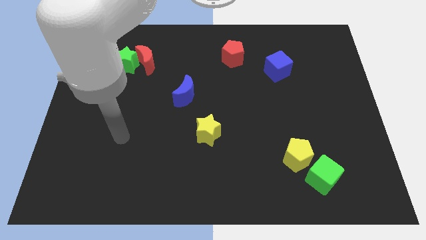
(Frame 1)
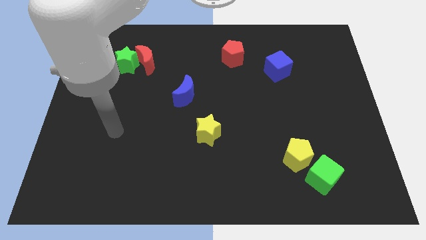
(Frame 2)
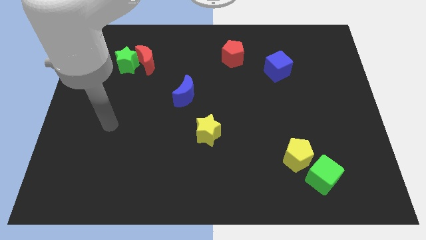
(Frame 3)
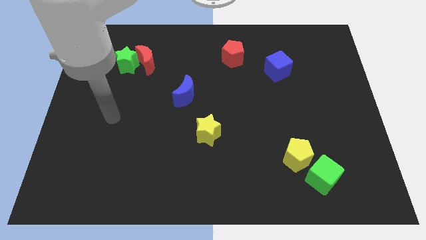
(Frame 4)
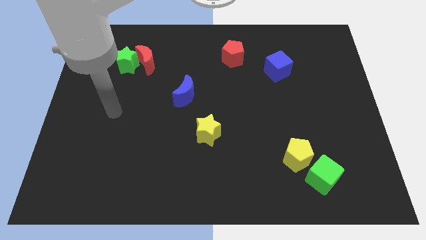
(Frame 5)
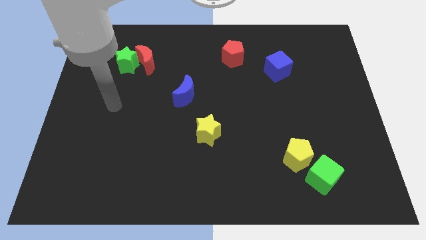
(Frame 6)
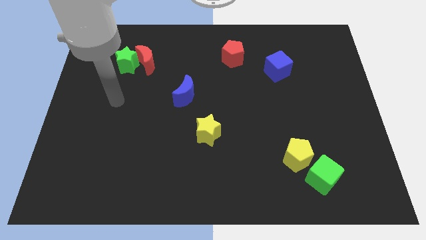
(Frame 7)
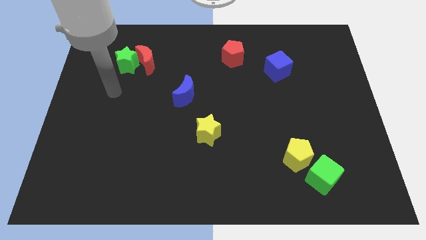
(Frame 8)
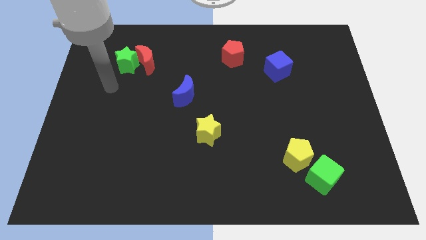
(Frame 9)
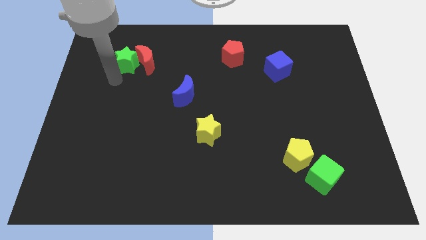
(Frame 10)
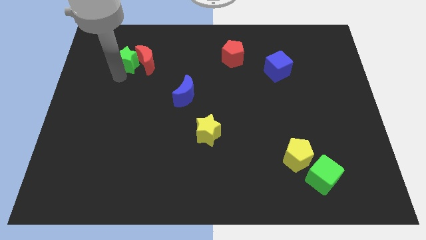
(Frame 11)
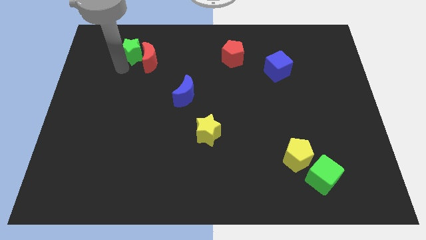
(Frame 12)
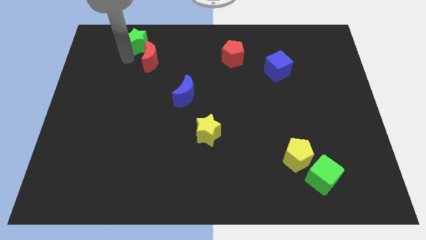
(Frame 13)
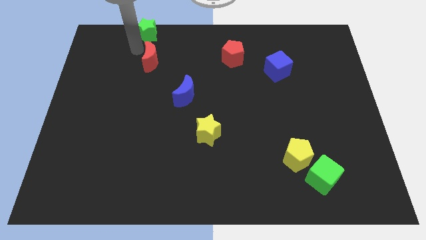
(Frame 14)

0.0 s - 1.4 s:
separate the red moon from the green star

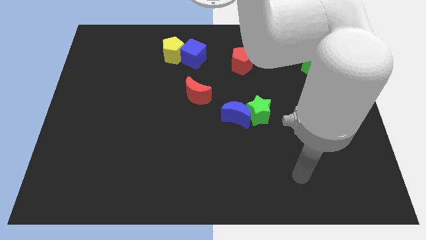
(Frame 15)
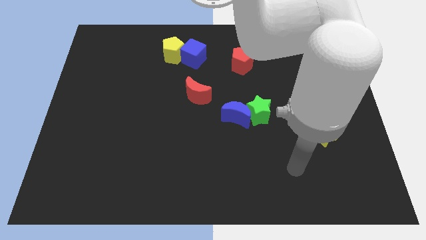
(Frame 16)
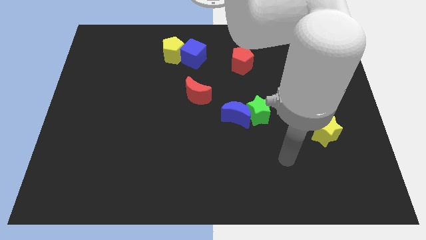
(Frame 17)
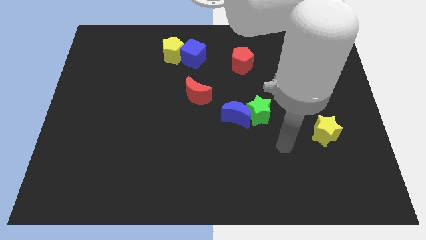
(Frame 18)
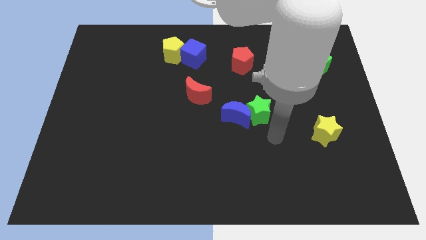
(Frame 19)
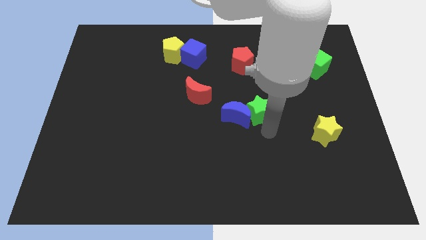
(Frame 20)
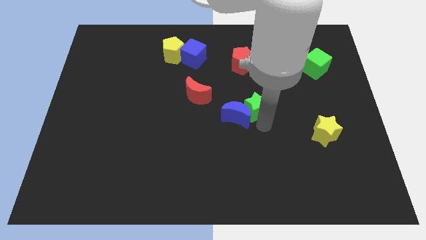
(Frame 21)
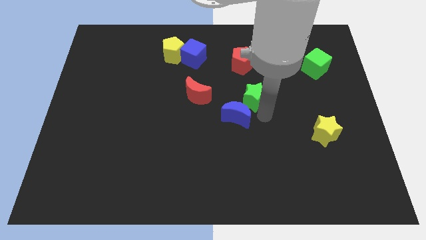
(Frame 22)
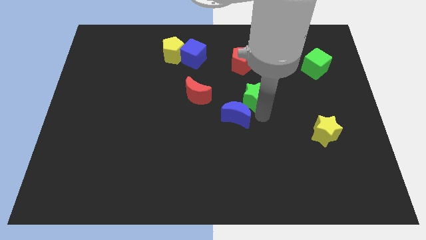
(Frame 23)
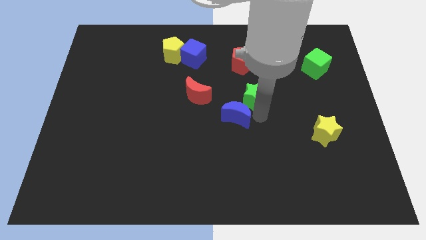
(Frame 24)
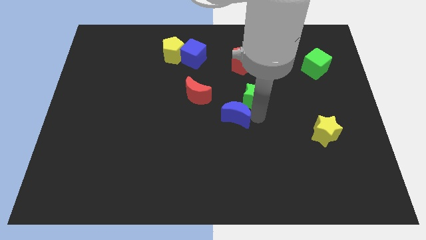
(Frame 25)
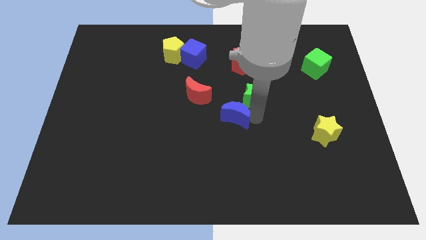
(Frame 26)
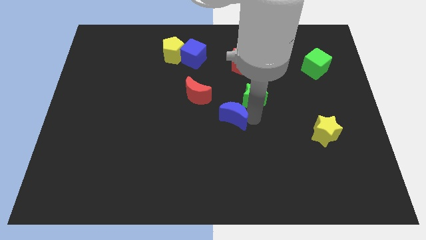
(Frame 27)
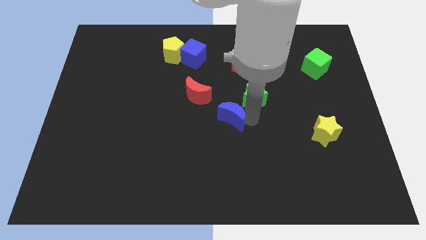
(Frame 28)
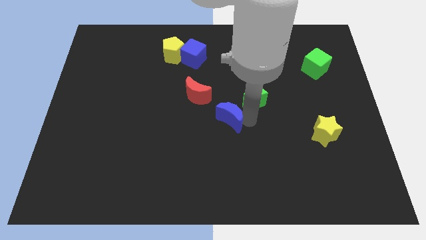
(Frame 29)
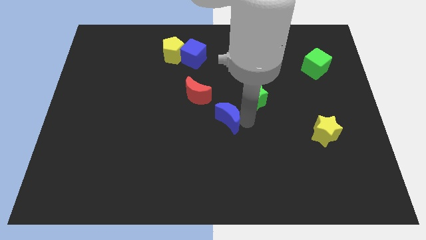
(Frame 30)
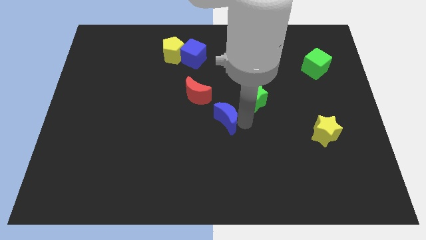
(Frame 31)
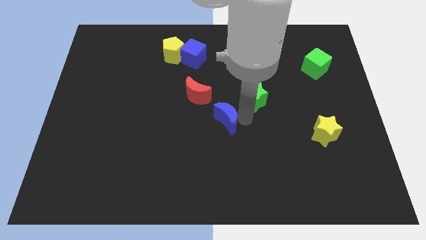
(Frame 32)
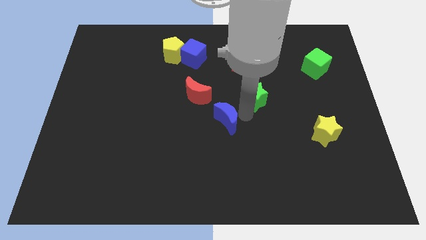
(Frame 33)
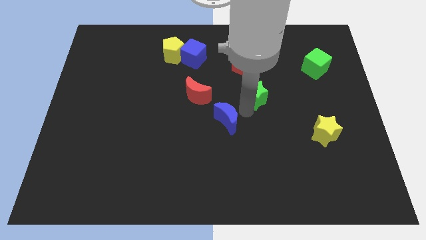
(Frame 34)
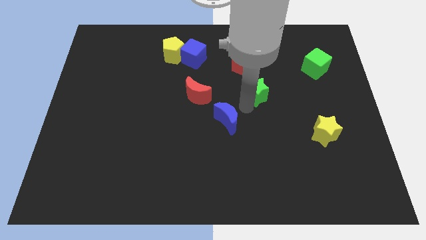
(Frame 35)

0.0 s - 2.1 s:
move the blue moon away from the green star

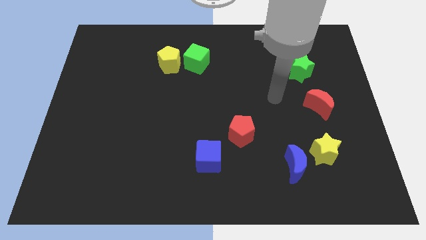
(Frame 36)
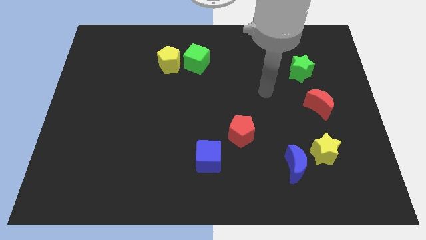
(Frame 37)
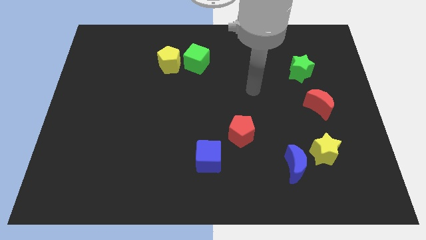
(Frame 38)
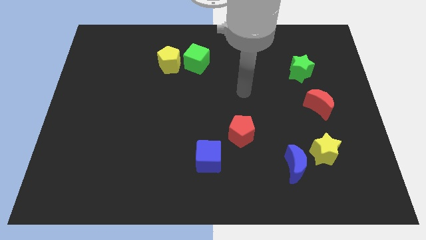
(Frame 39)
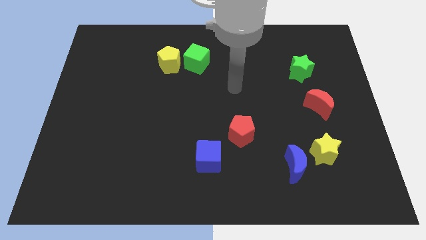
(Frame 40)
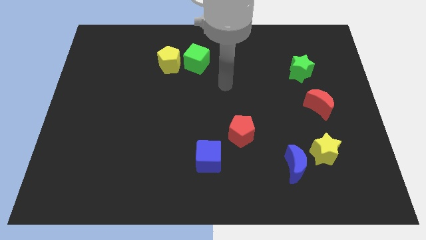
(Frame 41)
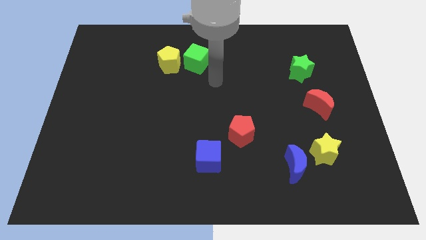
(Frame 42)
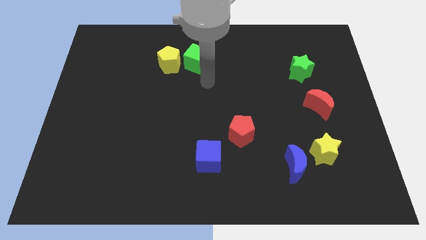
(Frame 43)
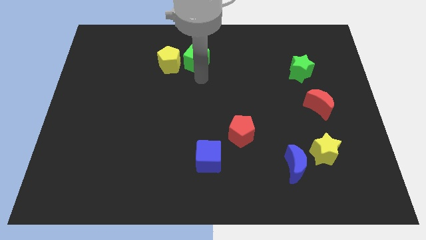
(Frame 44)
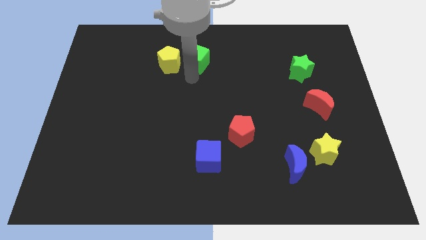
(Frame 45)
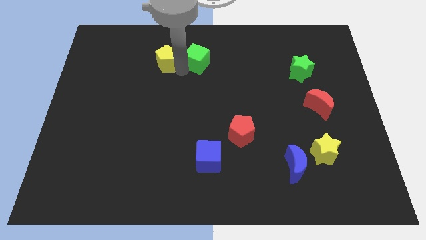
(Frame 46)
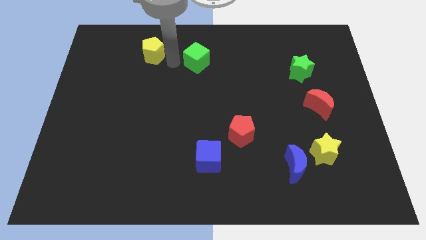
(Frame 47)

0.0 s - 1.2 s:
separate the green cube from the yellow pentagon

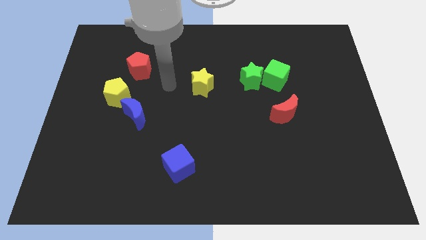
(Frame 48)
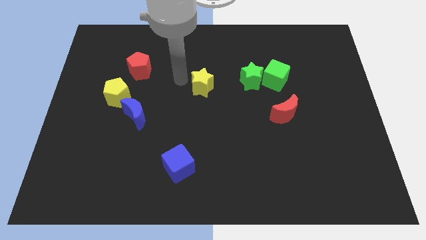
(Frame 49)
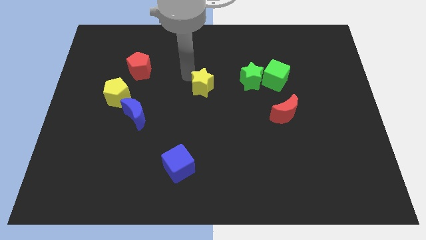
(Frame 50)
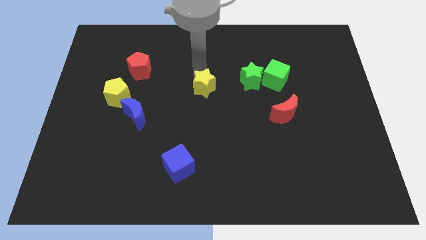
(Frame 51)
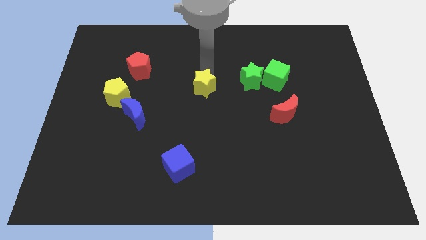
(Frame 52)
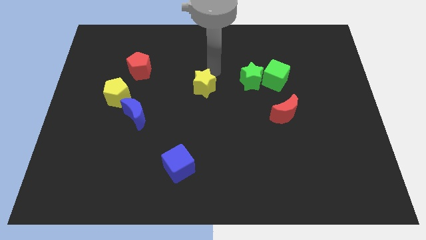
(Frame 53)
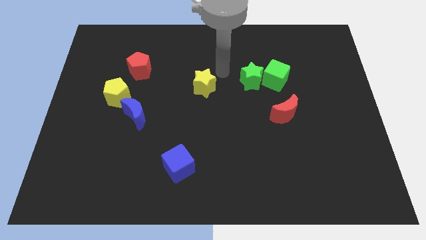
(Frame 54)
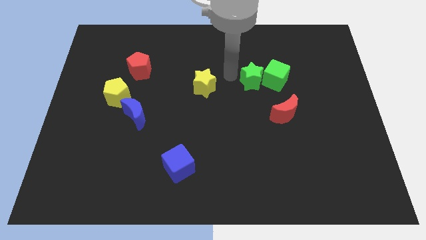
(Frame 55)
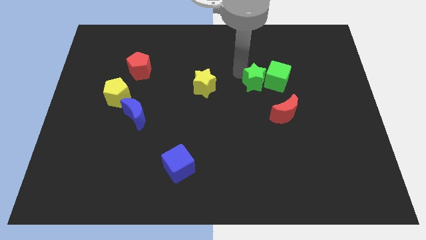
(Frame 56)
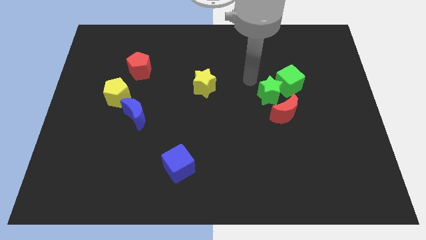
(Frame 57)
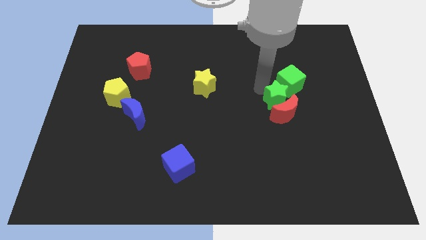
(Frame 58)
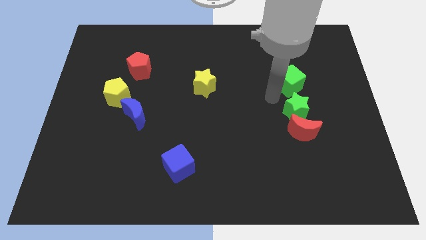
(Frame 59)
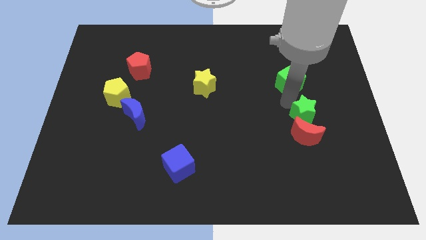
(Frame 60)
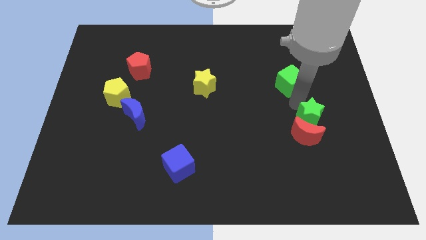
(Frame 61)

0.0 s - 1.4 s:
pull the green cube apart from the green star

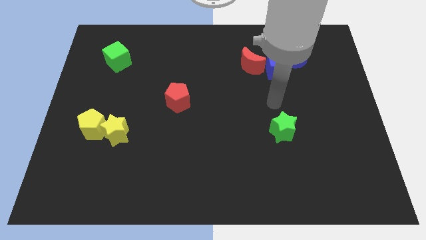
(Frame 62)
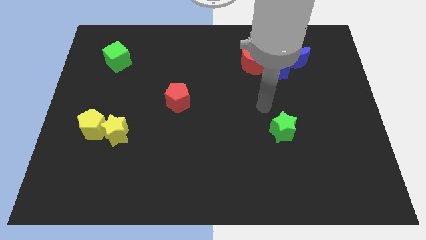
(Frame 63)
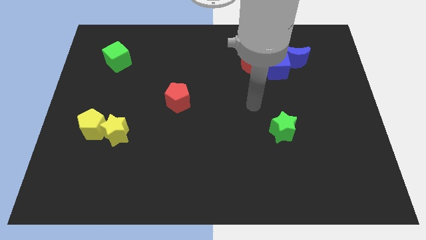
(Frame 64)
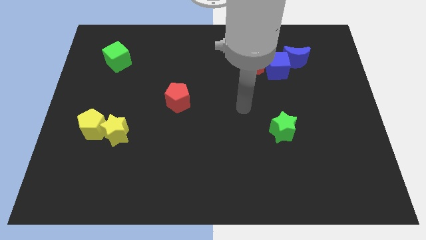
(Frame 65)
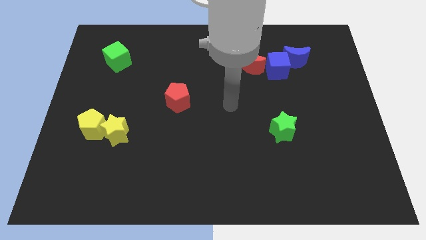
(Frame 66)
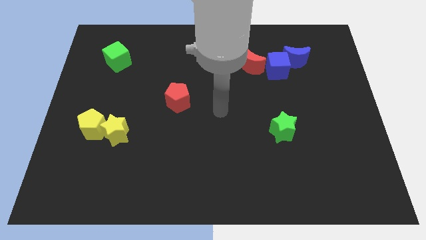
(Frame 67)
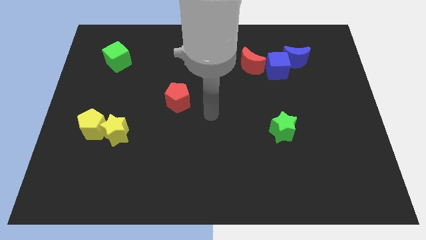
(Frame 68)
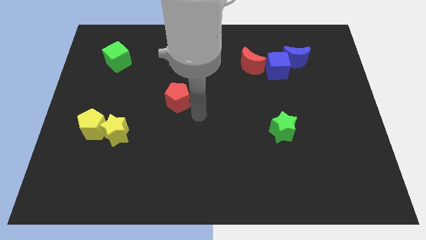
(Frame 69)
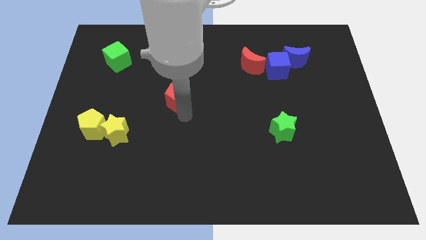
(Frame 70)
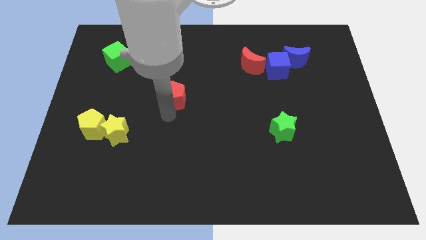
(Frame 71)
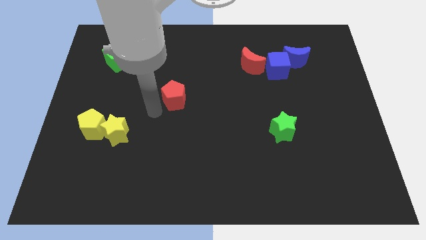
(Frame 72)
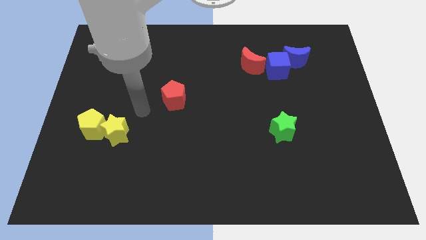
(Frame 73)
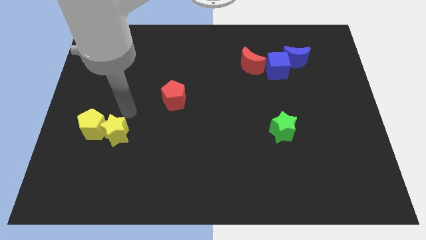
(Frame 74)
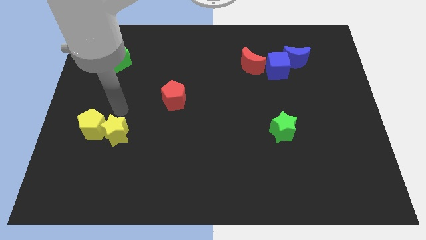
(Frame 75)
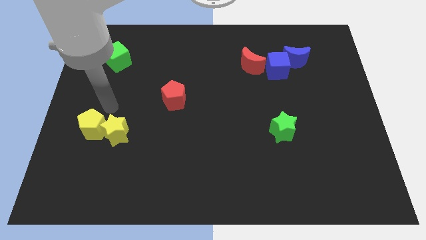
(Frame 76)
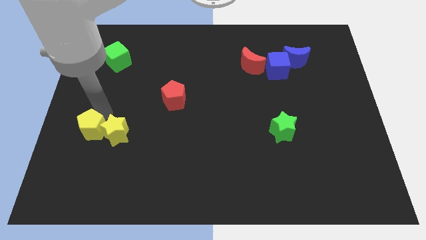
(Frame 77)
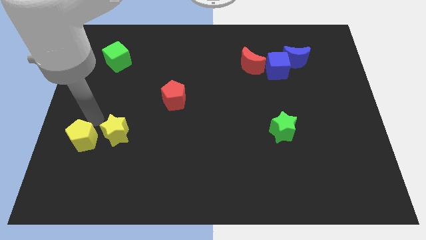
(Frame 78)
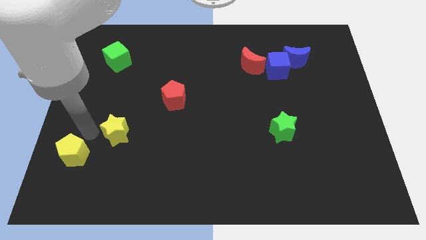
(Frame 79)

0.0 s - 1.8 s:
pull the yellow star apart from the yellow pentagon

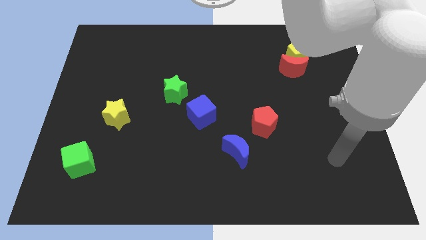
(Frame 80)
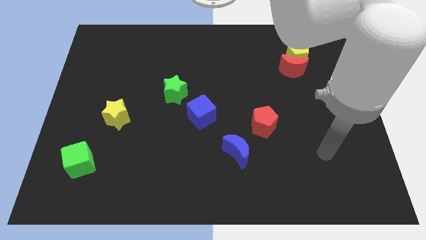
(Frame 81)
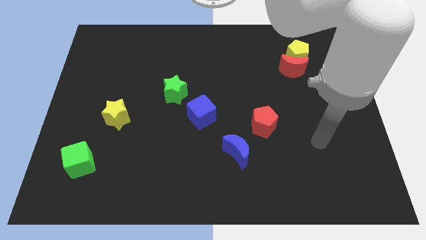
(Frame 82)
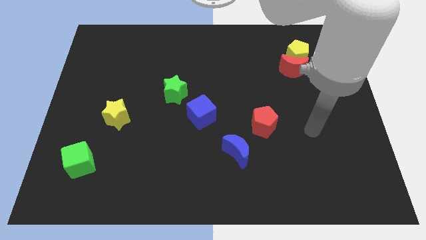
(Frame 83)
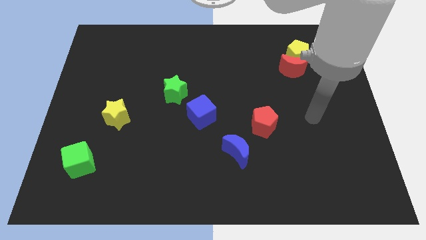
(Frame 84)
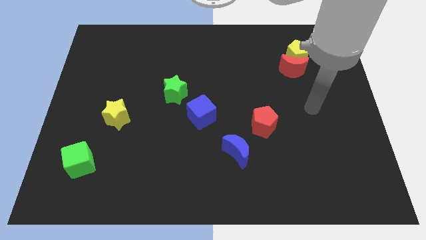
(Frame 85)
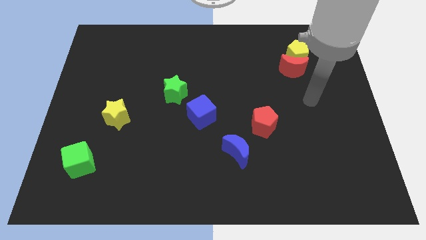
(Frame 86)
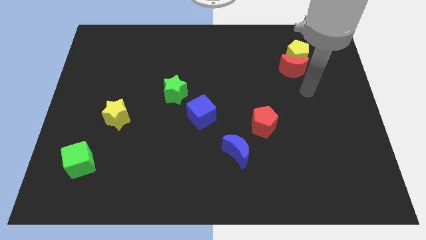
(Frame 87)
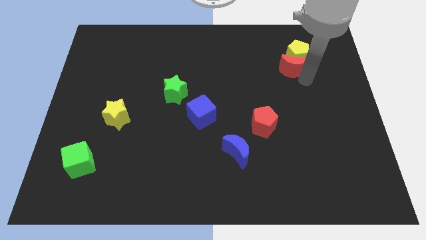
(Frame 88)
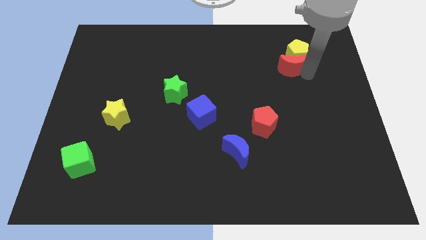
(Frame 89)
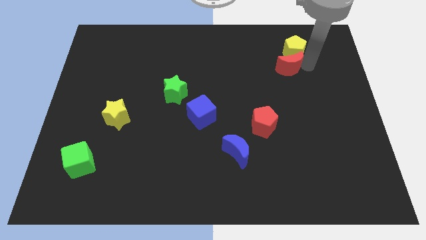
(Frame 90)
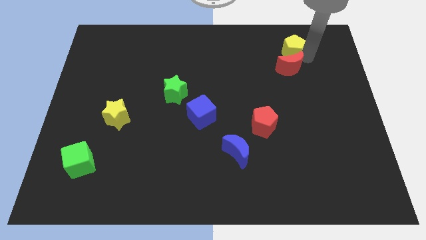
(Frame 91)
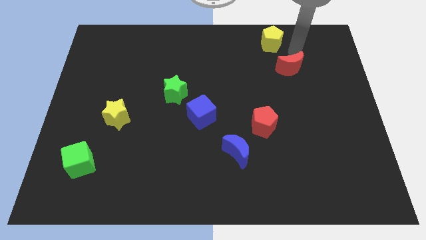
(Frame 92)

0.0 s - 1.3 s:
separate the red moon from the yellow pentagon

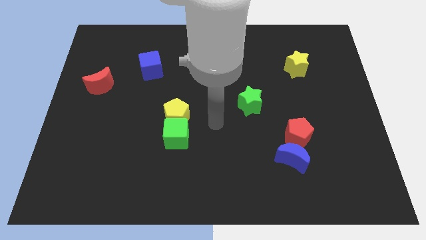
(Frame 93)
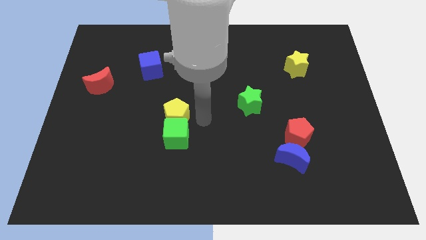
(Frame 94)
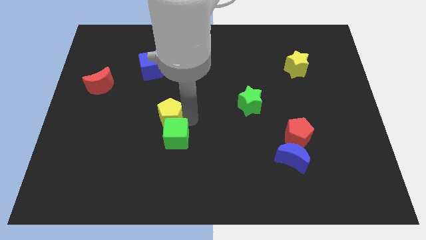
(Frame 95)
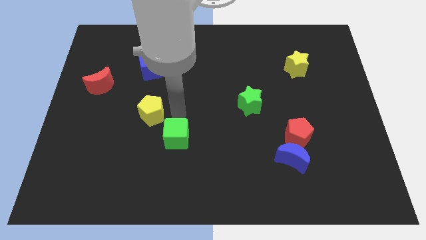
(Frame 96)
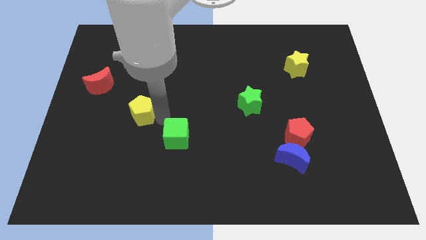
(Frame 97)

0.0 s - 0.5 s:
move the green cube away from the yellow pentagon
